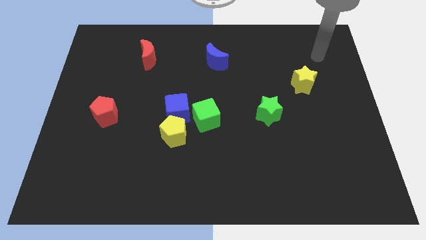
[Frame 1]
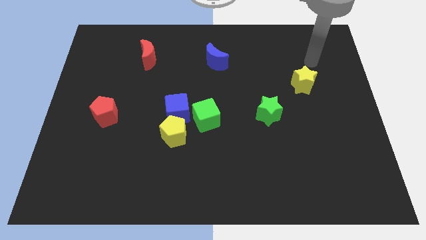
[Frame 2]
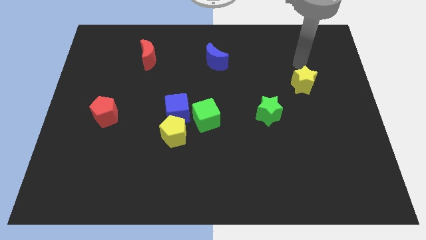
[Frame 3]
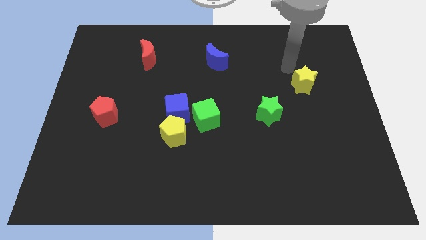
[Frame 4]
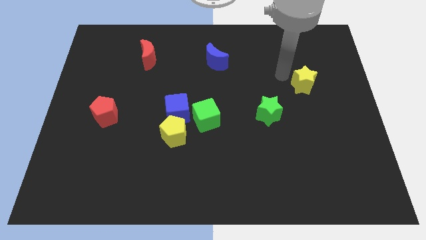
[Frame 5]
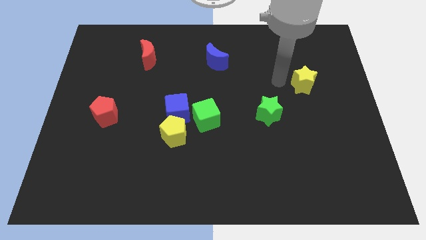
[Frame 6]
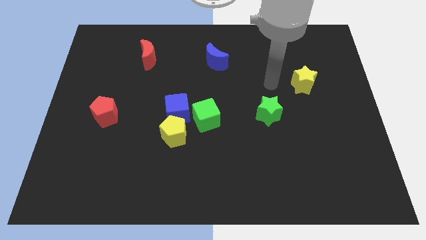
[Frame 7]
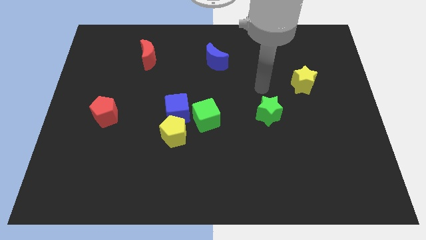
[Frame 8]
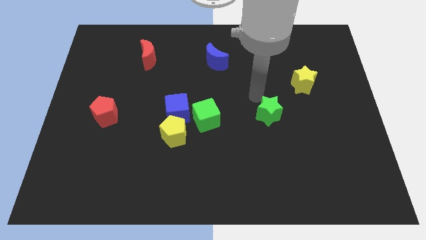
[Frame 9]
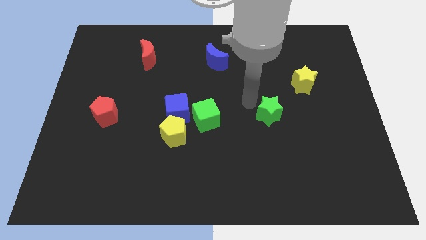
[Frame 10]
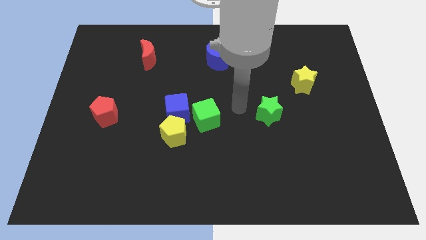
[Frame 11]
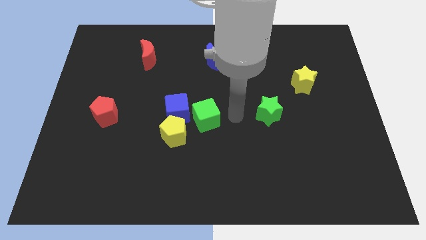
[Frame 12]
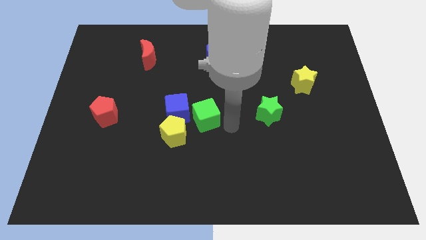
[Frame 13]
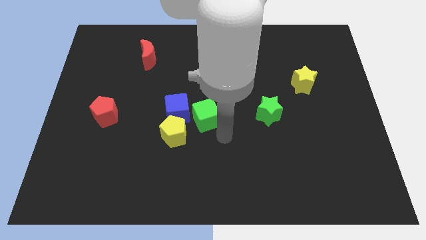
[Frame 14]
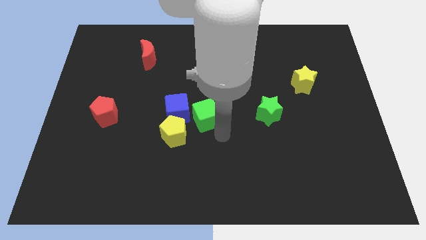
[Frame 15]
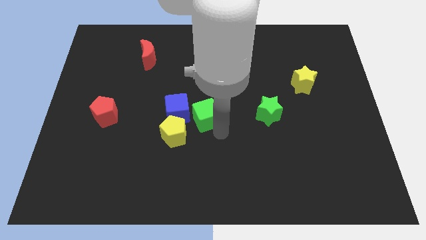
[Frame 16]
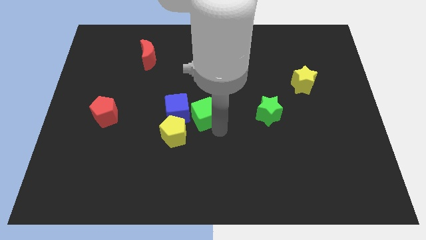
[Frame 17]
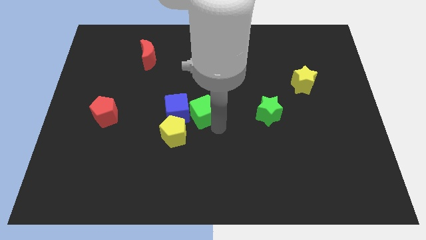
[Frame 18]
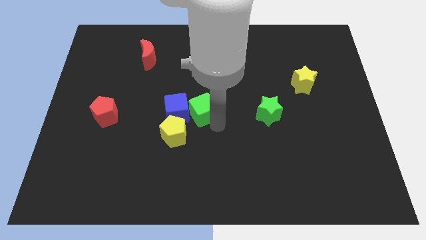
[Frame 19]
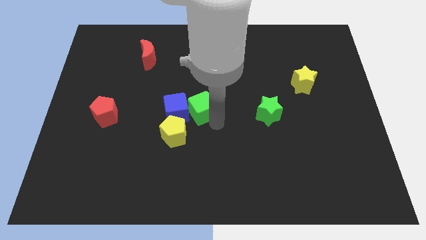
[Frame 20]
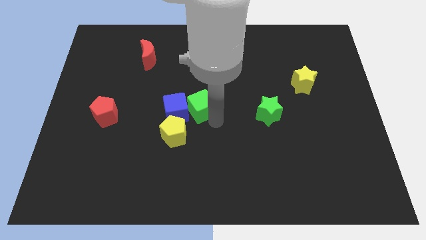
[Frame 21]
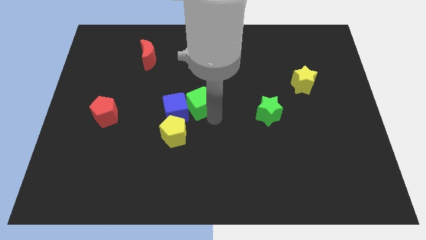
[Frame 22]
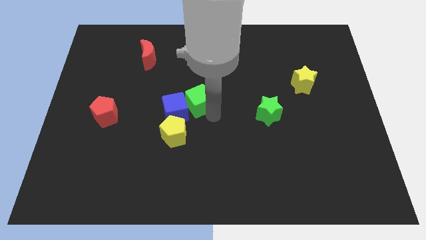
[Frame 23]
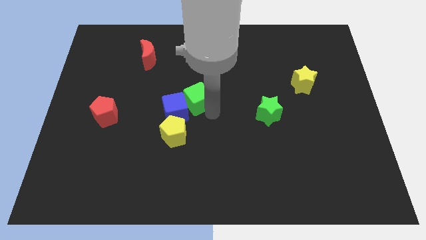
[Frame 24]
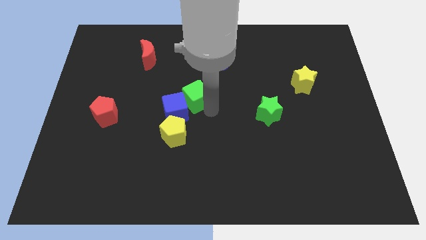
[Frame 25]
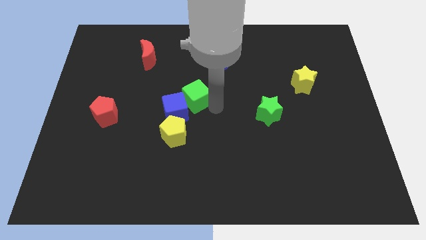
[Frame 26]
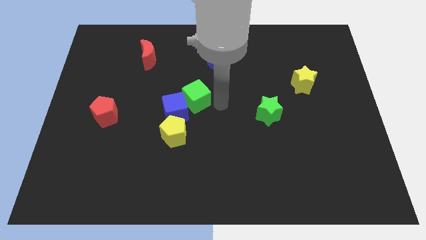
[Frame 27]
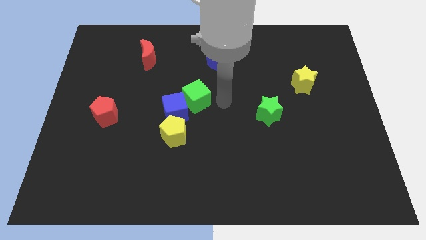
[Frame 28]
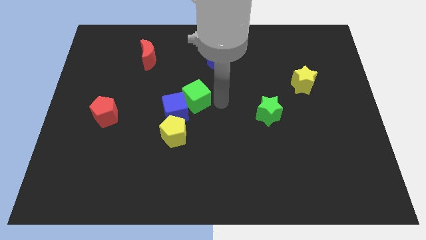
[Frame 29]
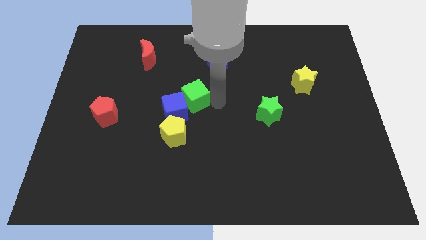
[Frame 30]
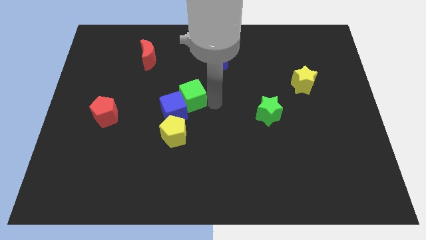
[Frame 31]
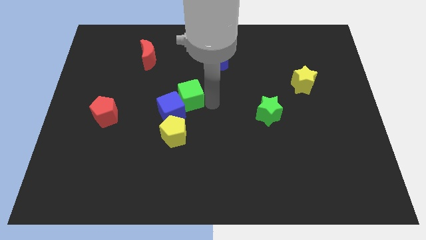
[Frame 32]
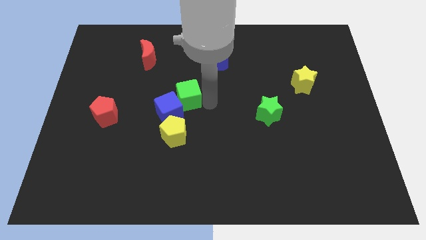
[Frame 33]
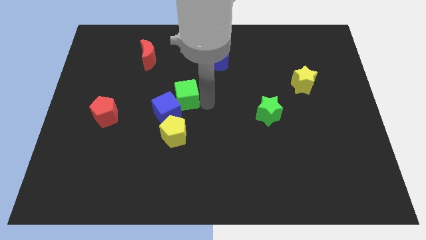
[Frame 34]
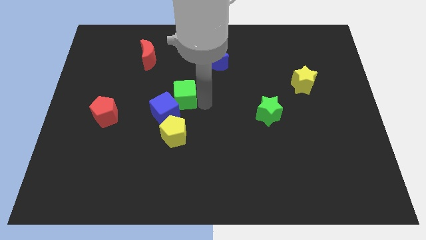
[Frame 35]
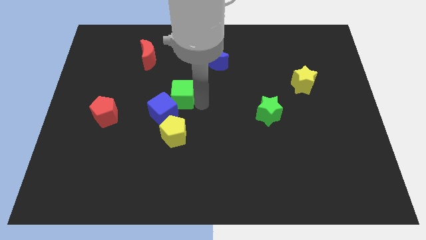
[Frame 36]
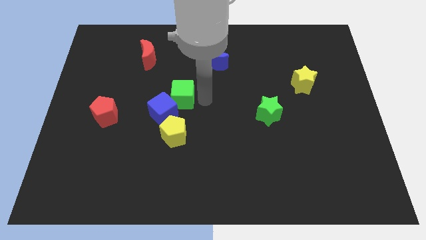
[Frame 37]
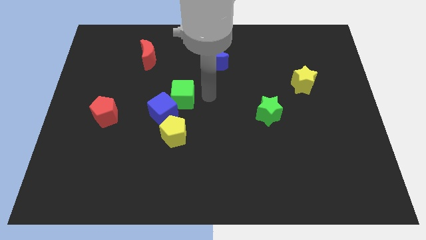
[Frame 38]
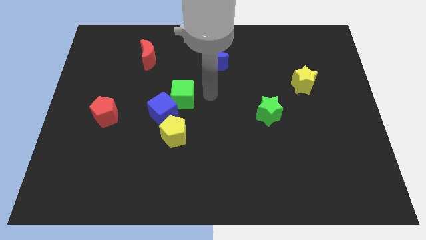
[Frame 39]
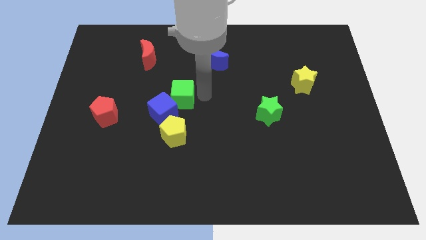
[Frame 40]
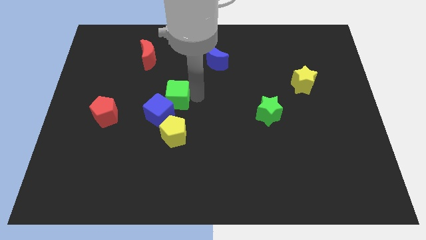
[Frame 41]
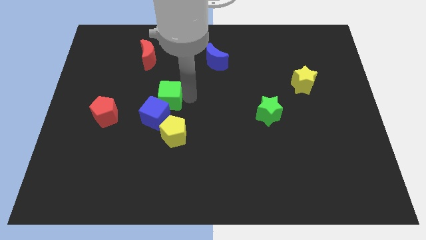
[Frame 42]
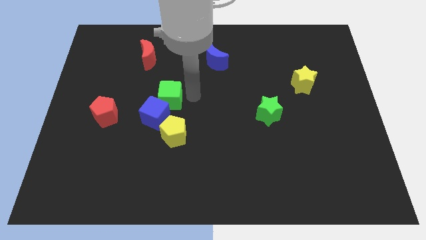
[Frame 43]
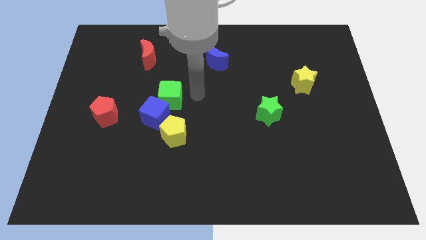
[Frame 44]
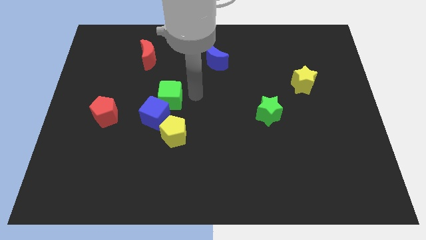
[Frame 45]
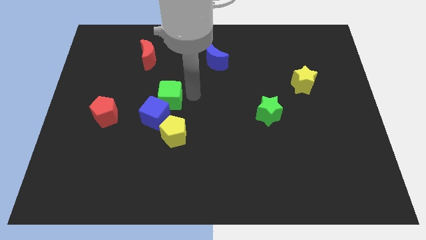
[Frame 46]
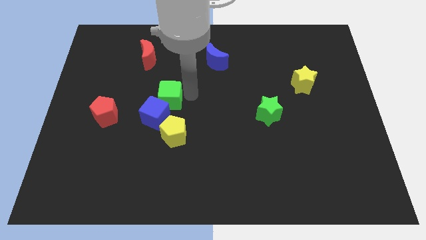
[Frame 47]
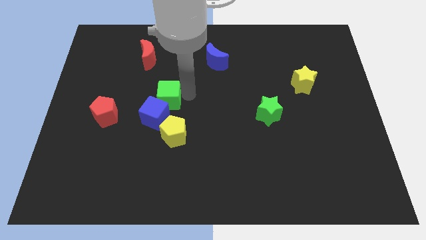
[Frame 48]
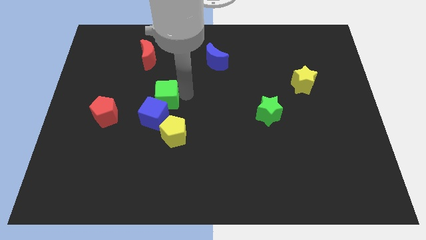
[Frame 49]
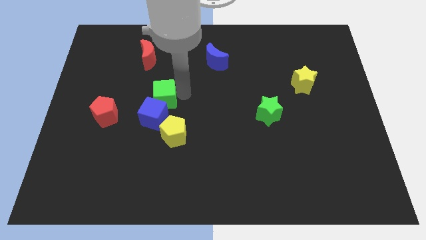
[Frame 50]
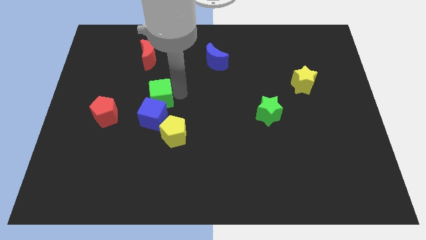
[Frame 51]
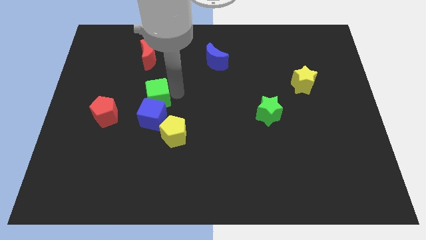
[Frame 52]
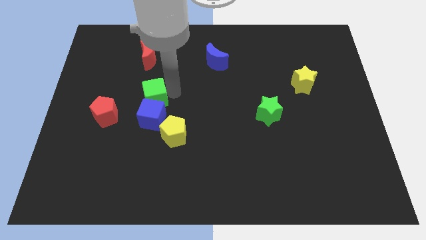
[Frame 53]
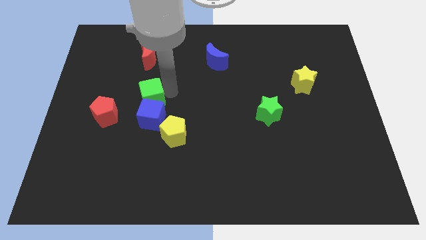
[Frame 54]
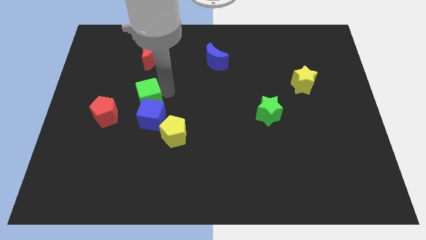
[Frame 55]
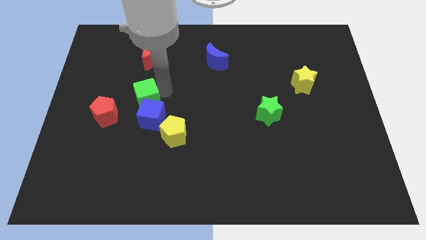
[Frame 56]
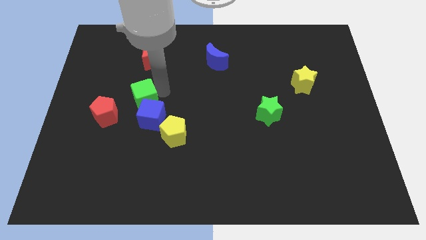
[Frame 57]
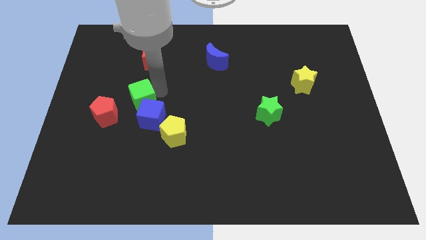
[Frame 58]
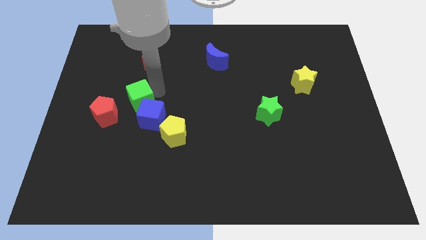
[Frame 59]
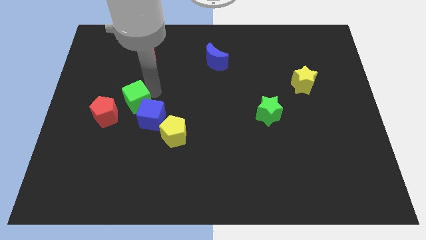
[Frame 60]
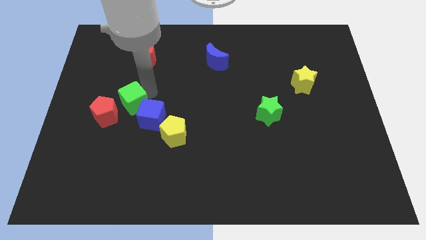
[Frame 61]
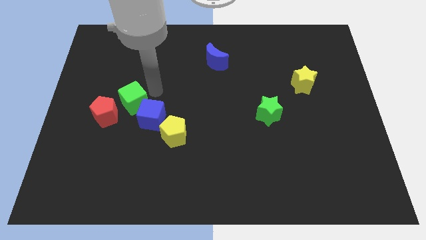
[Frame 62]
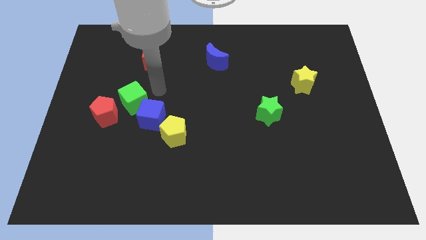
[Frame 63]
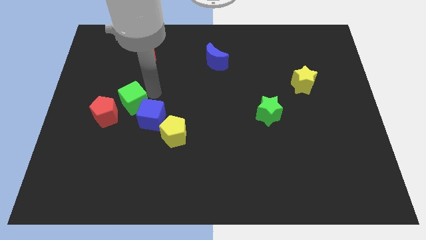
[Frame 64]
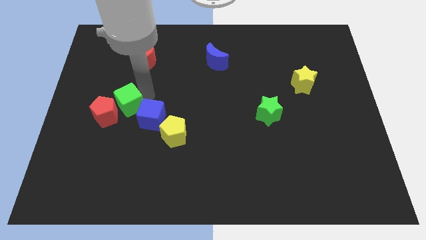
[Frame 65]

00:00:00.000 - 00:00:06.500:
put the green cube next to the red pentagon
